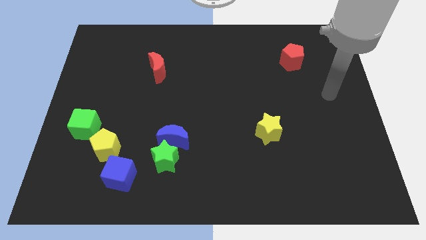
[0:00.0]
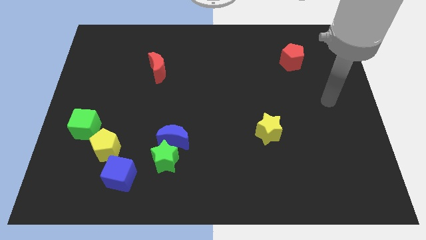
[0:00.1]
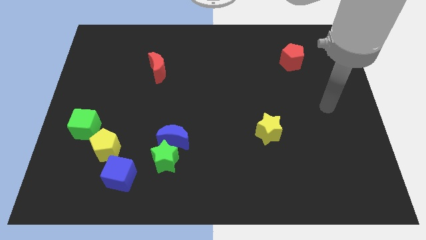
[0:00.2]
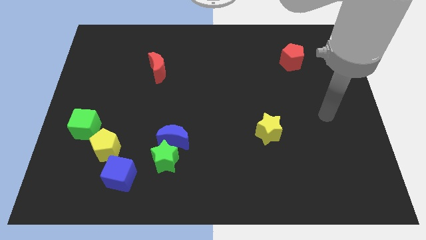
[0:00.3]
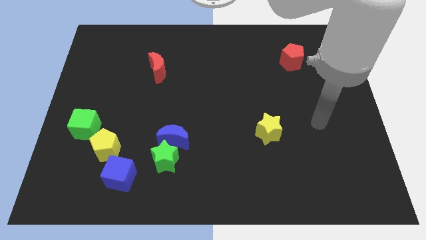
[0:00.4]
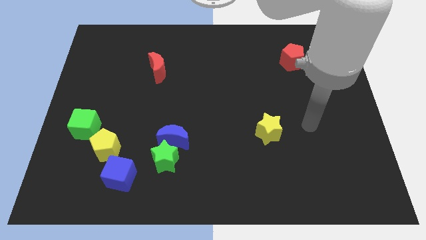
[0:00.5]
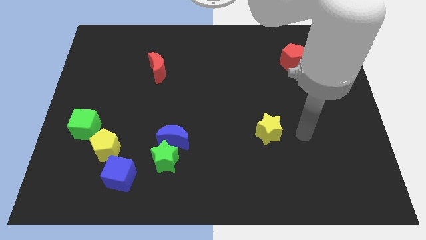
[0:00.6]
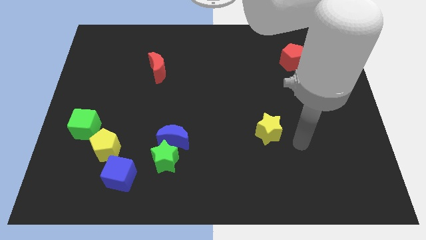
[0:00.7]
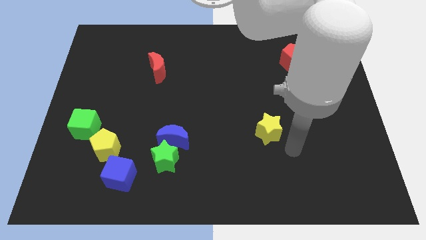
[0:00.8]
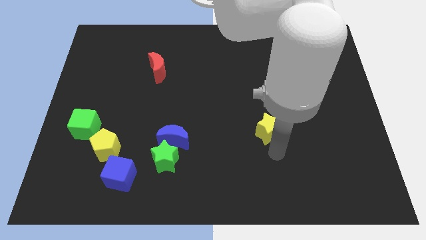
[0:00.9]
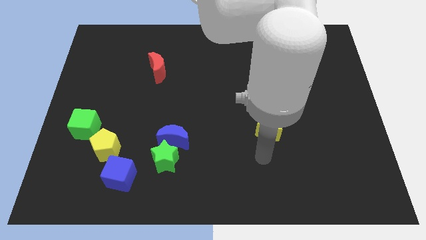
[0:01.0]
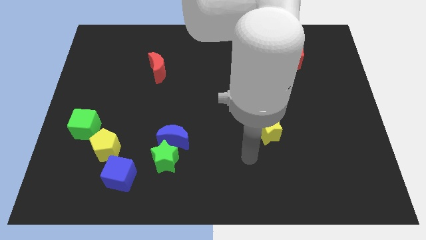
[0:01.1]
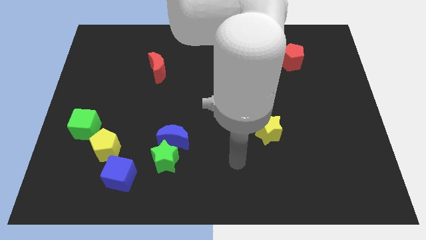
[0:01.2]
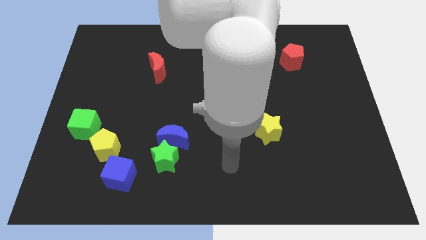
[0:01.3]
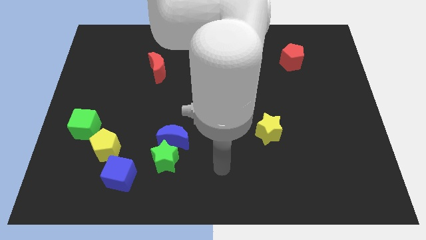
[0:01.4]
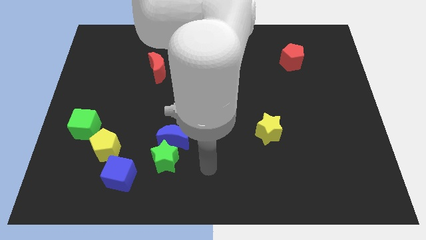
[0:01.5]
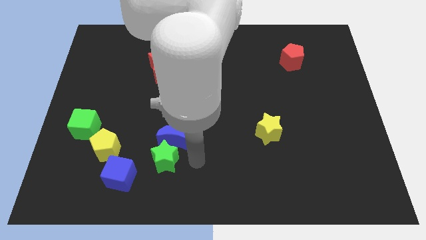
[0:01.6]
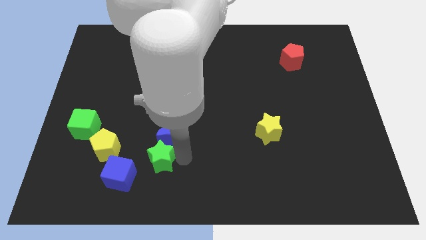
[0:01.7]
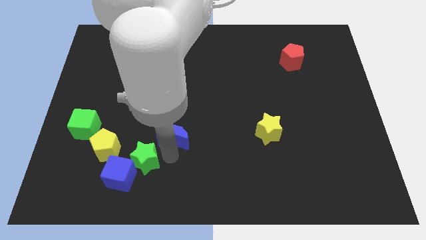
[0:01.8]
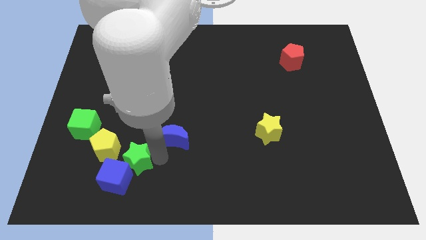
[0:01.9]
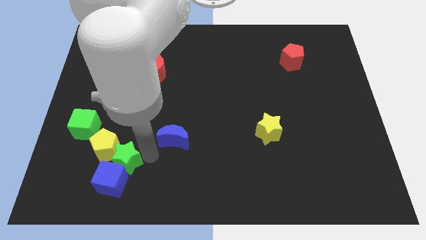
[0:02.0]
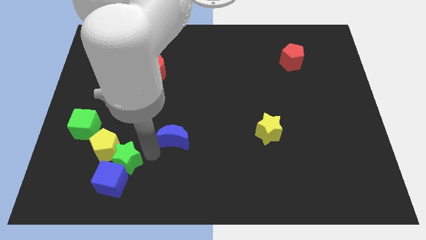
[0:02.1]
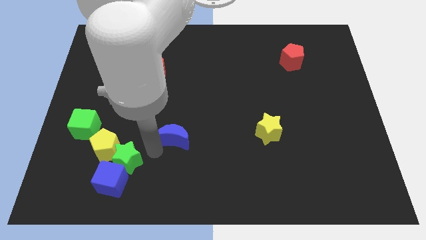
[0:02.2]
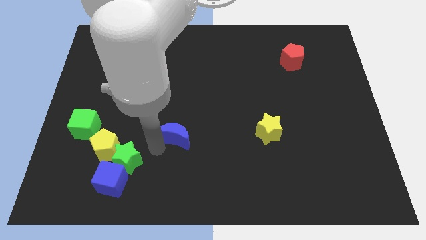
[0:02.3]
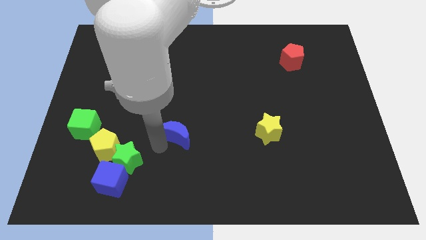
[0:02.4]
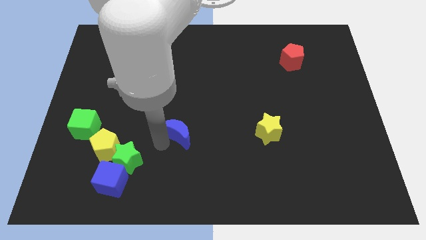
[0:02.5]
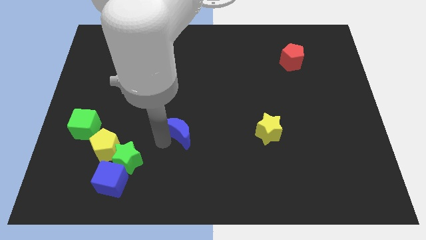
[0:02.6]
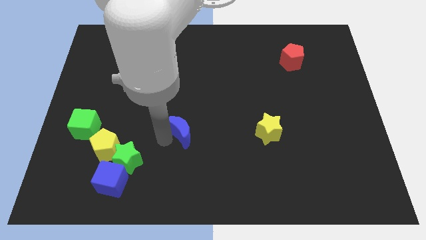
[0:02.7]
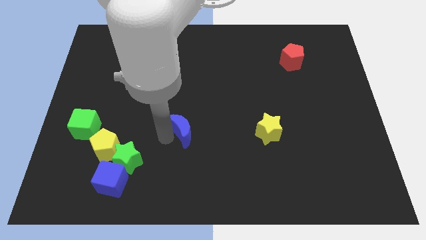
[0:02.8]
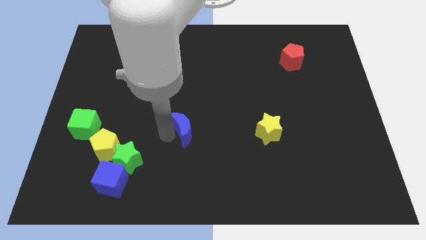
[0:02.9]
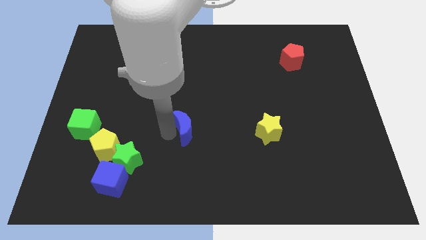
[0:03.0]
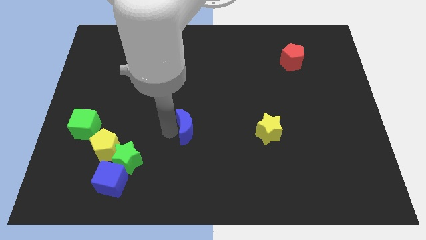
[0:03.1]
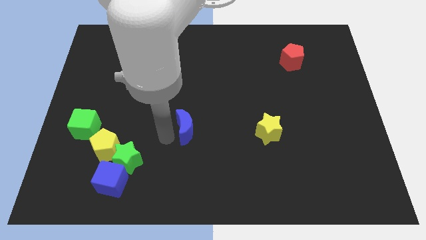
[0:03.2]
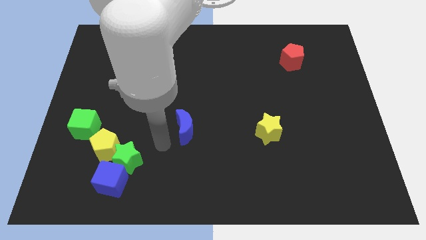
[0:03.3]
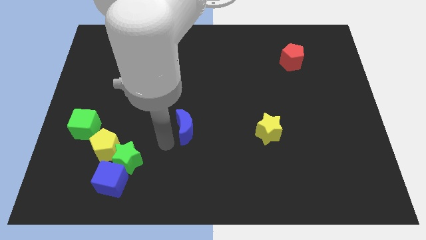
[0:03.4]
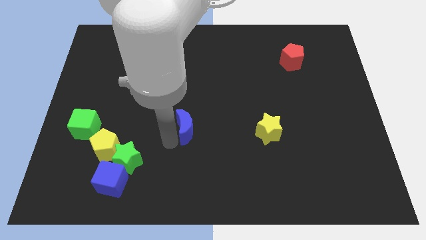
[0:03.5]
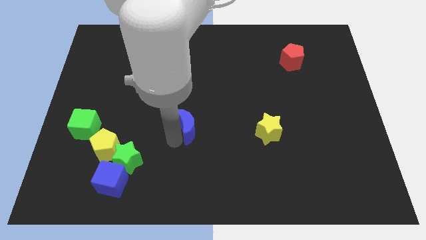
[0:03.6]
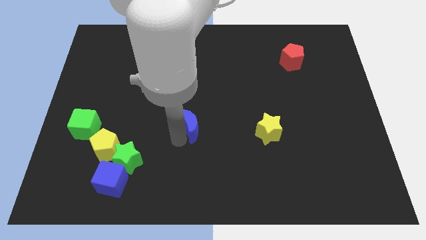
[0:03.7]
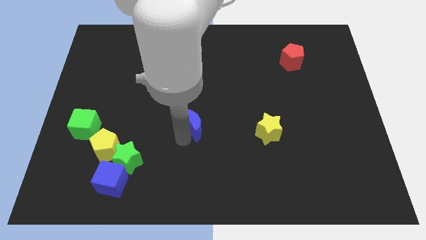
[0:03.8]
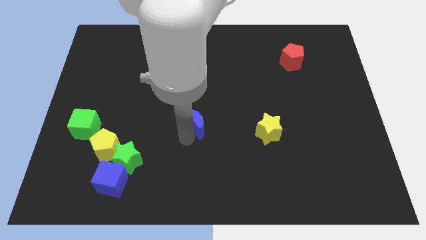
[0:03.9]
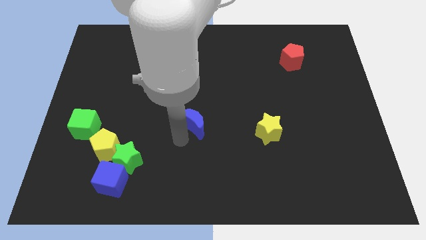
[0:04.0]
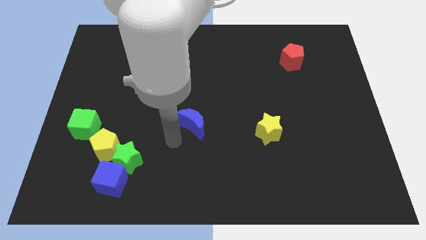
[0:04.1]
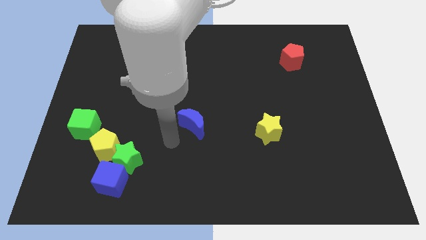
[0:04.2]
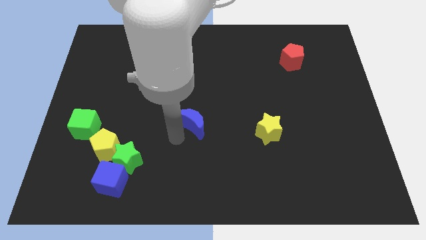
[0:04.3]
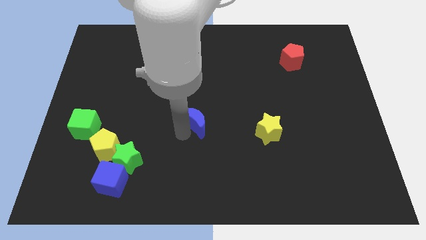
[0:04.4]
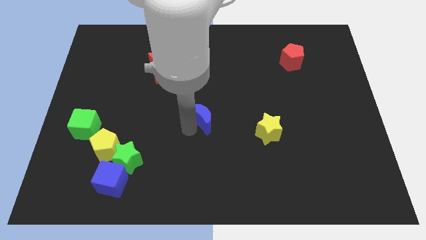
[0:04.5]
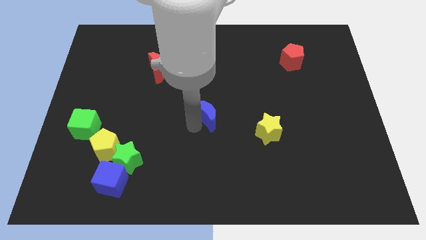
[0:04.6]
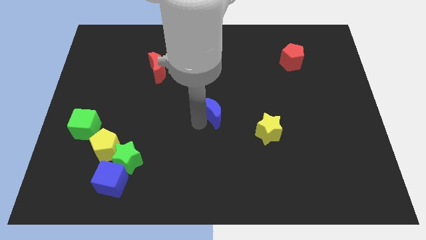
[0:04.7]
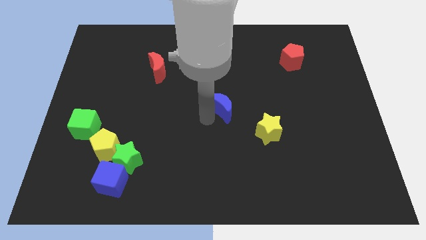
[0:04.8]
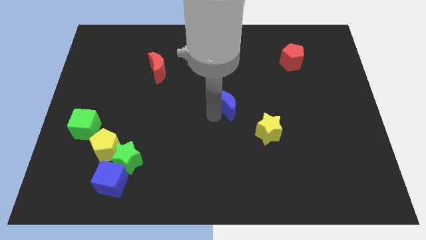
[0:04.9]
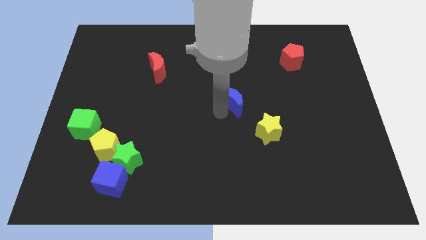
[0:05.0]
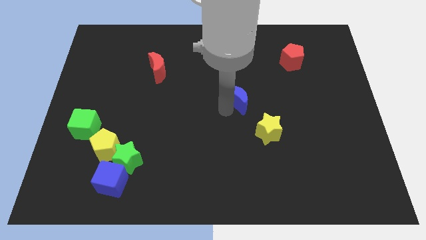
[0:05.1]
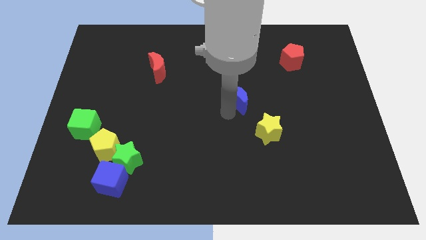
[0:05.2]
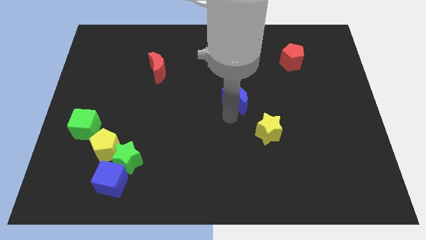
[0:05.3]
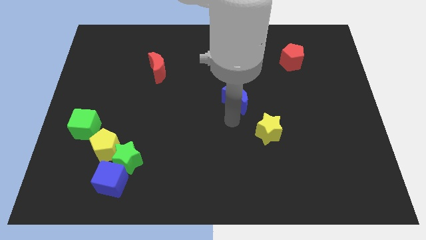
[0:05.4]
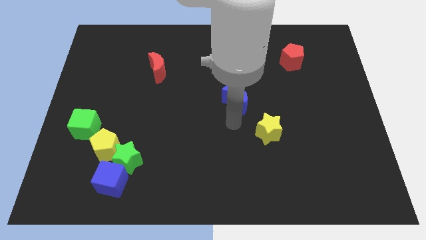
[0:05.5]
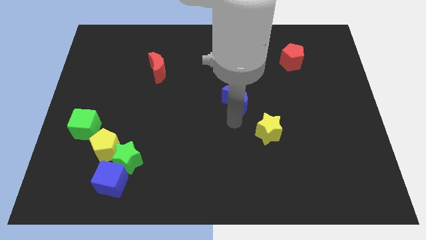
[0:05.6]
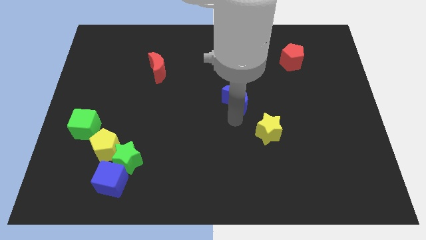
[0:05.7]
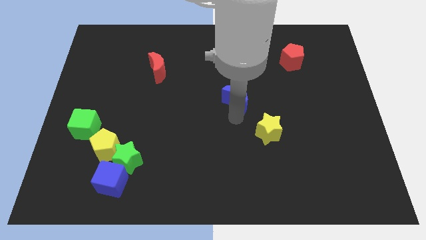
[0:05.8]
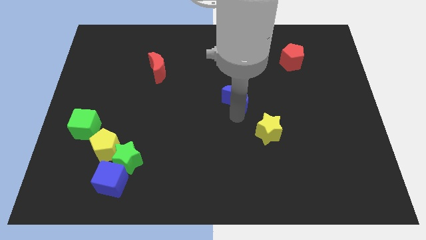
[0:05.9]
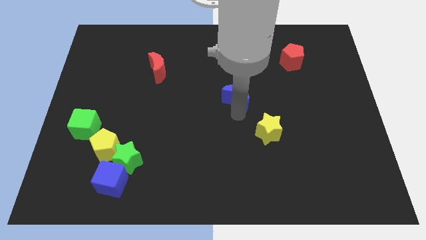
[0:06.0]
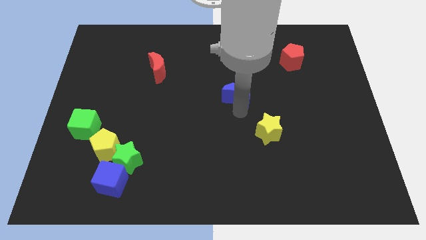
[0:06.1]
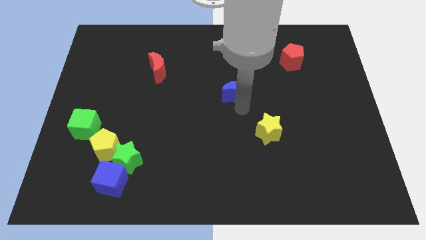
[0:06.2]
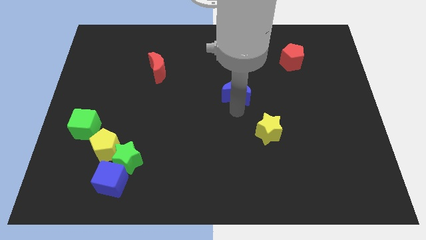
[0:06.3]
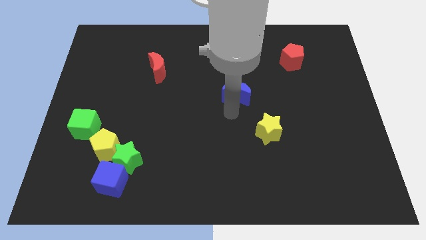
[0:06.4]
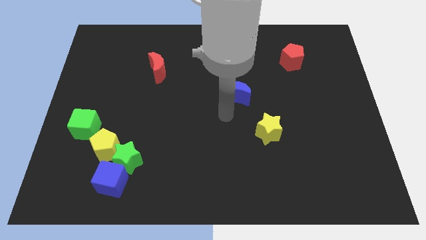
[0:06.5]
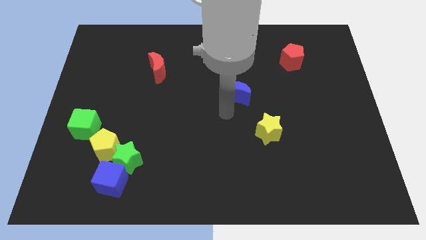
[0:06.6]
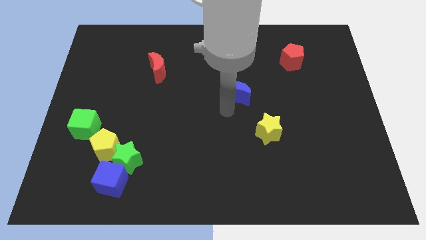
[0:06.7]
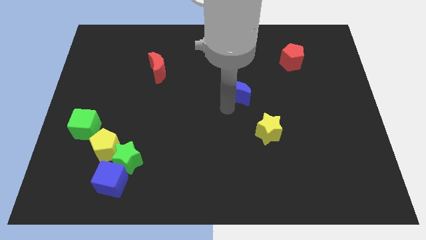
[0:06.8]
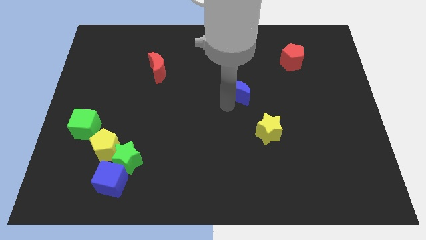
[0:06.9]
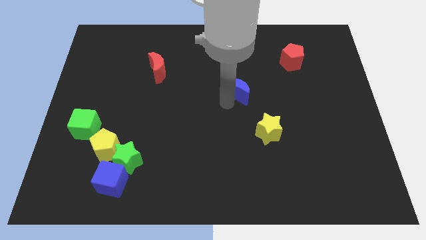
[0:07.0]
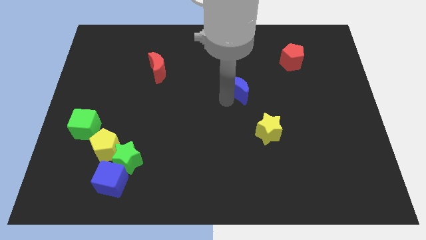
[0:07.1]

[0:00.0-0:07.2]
push the blue moon upwards and right

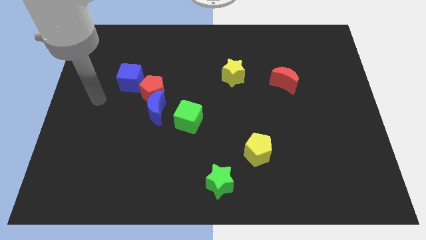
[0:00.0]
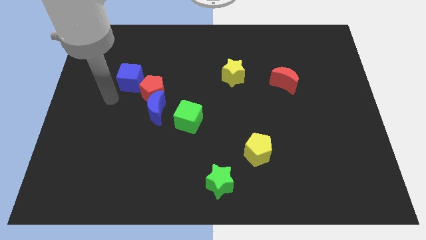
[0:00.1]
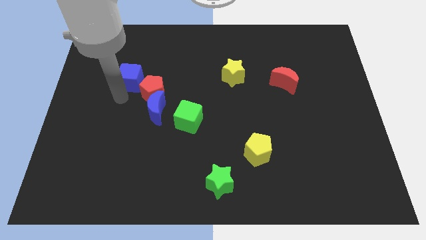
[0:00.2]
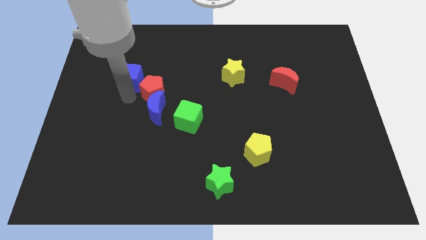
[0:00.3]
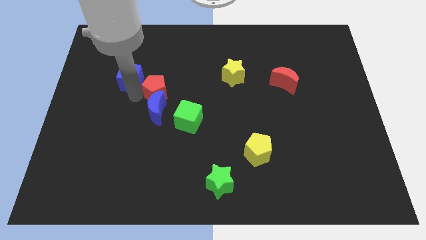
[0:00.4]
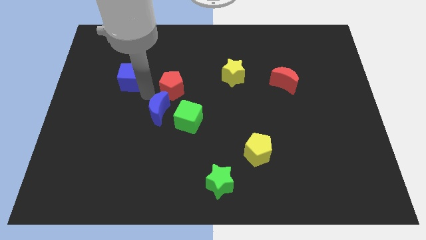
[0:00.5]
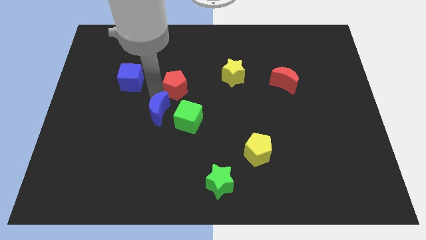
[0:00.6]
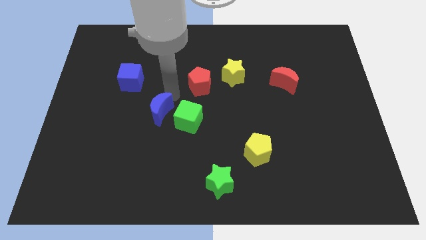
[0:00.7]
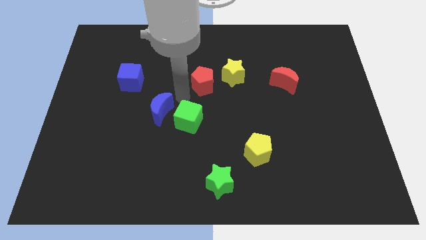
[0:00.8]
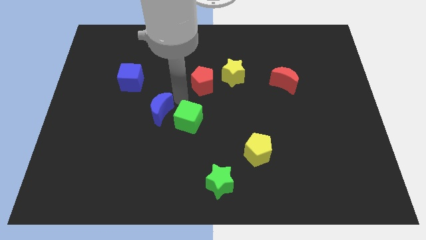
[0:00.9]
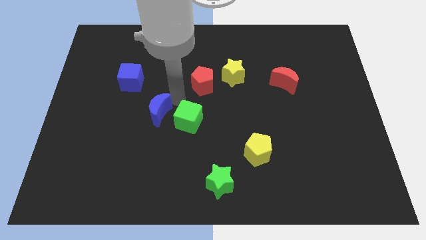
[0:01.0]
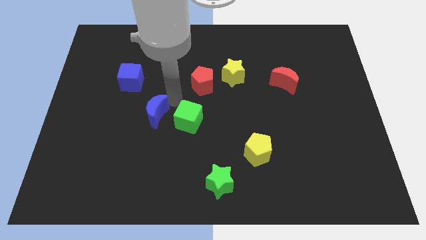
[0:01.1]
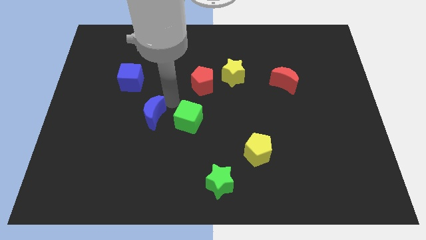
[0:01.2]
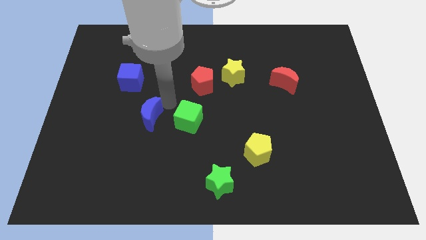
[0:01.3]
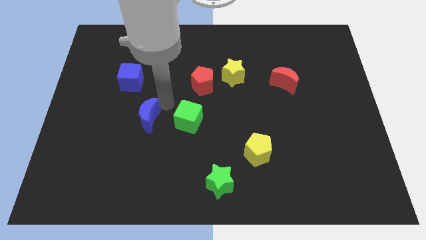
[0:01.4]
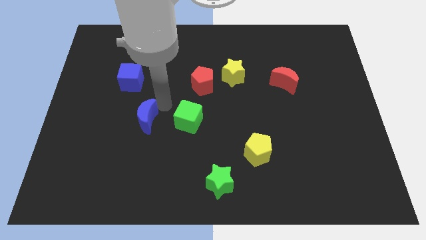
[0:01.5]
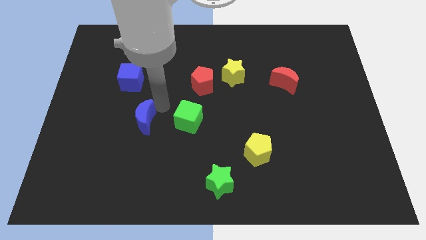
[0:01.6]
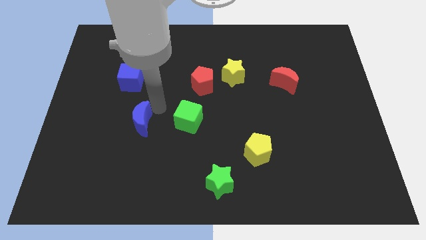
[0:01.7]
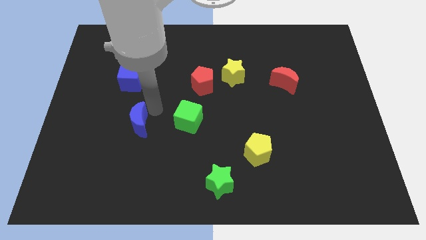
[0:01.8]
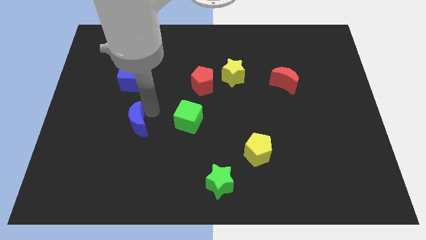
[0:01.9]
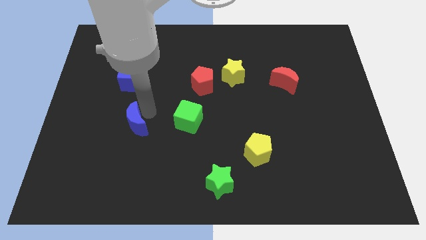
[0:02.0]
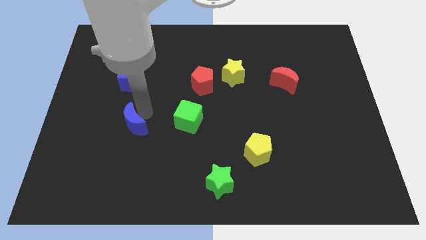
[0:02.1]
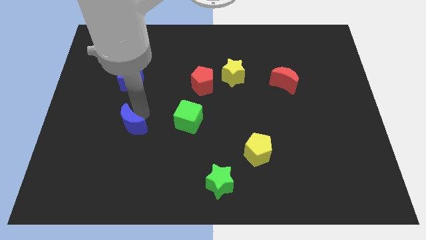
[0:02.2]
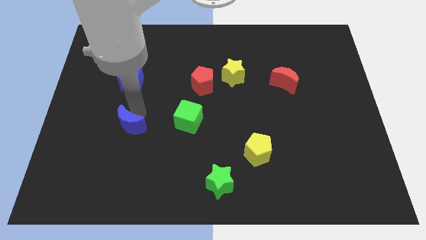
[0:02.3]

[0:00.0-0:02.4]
move the blue moon a little bit downwards and left diagonally
